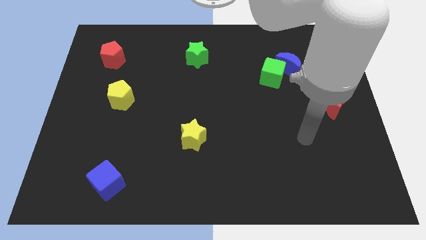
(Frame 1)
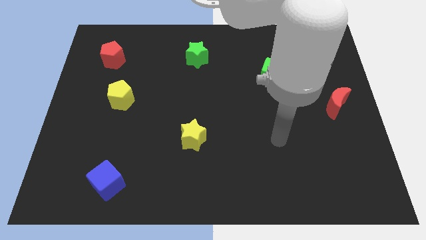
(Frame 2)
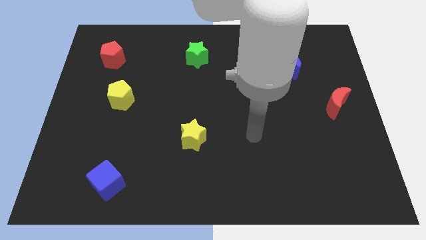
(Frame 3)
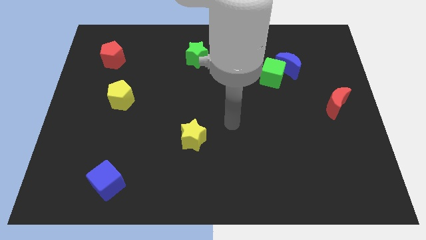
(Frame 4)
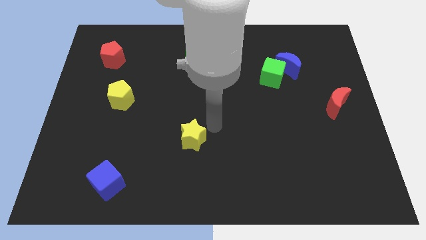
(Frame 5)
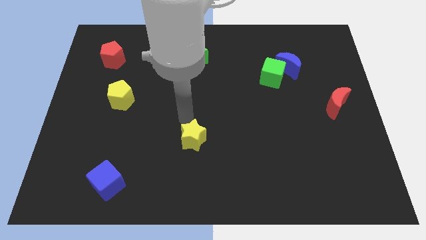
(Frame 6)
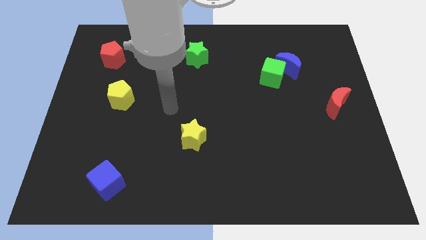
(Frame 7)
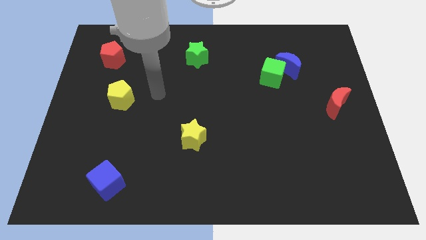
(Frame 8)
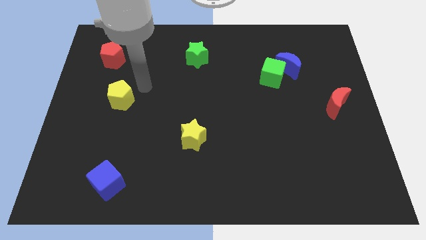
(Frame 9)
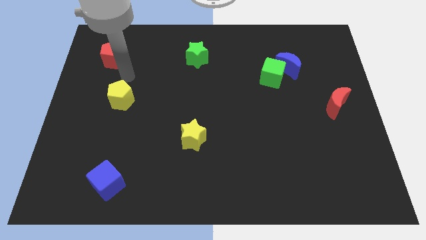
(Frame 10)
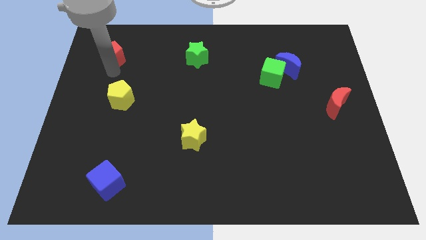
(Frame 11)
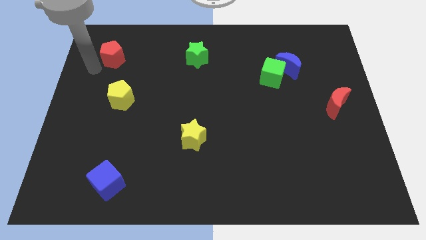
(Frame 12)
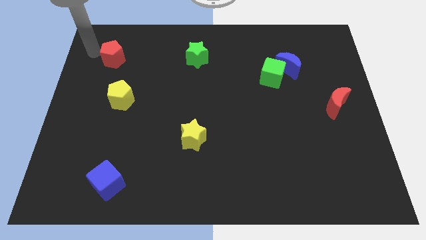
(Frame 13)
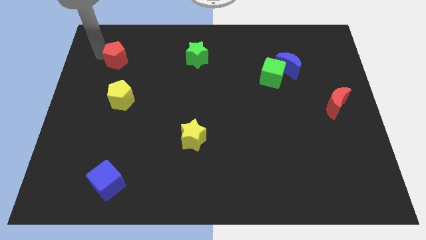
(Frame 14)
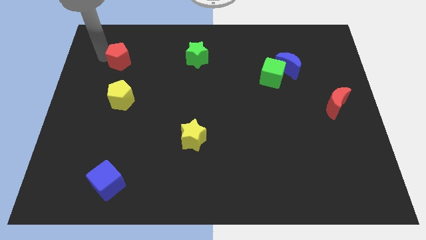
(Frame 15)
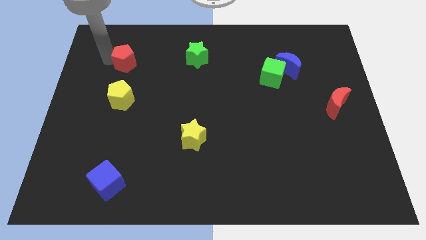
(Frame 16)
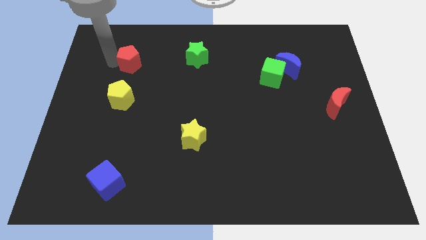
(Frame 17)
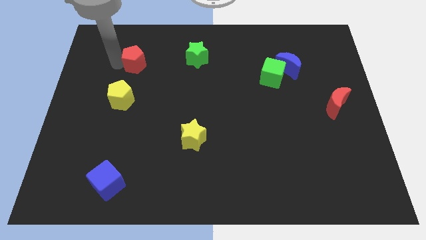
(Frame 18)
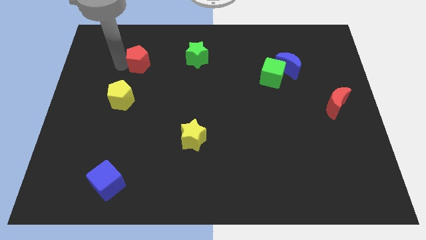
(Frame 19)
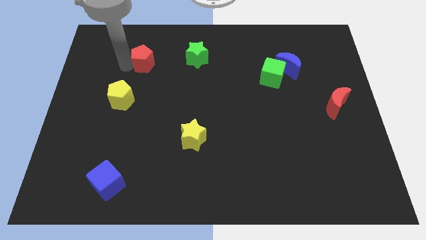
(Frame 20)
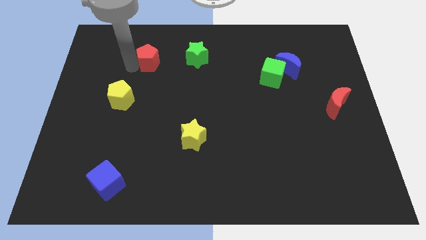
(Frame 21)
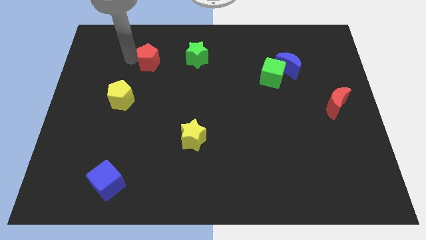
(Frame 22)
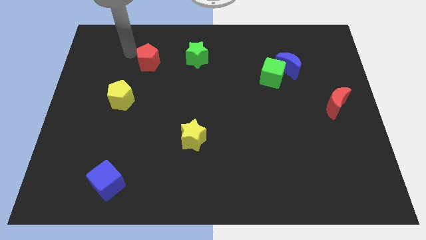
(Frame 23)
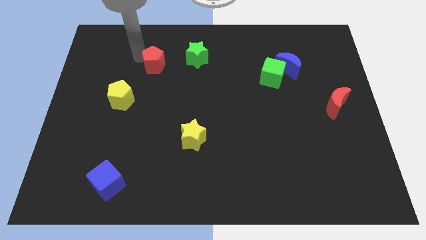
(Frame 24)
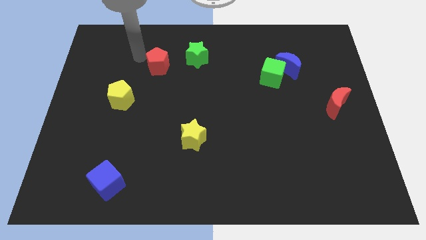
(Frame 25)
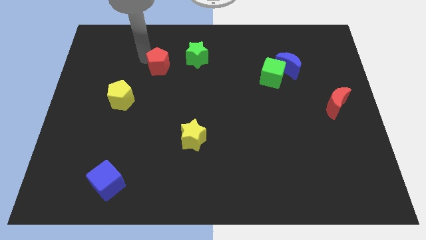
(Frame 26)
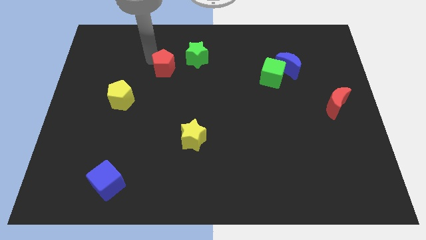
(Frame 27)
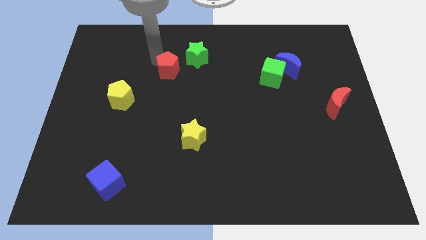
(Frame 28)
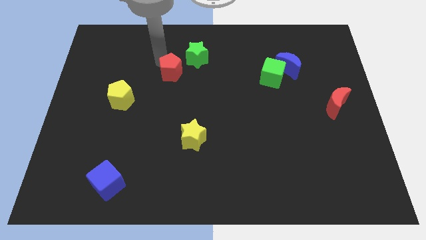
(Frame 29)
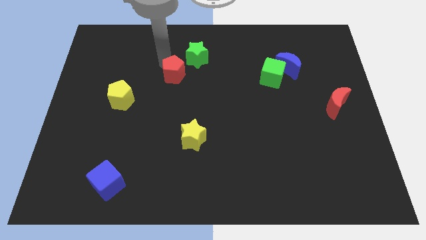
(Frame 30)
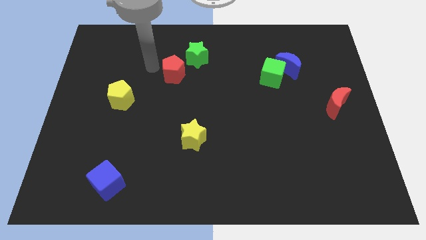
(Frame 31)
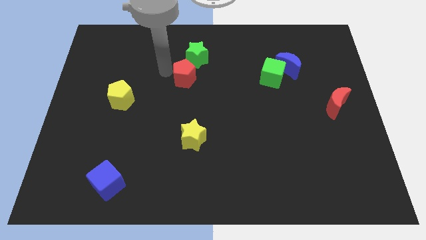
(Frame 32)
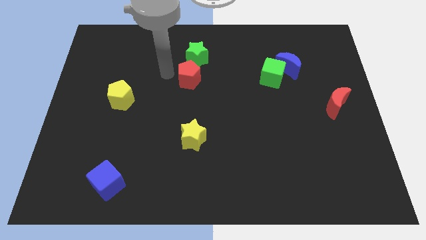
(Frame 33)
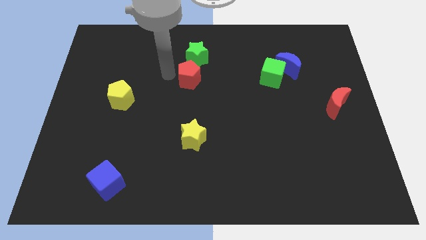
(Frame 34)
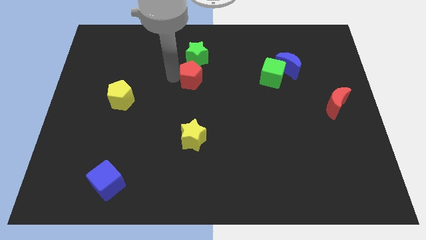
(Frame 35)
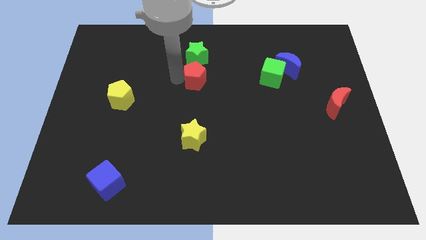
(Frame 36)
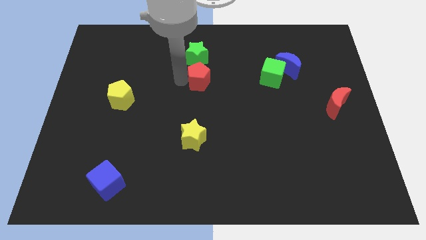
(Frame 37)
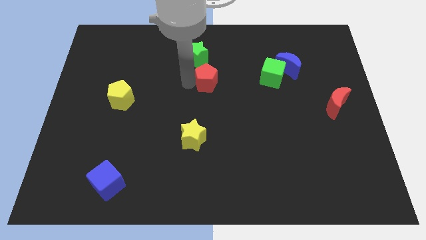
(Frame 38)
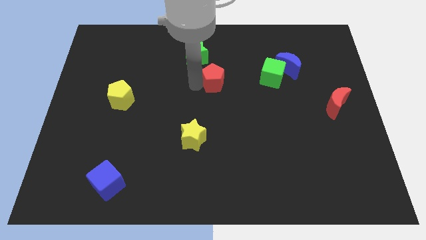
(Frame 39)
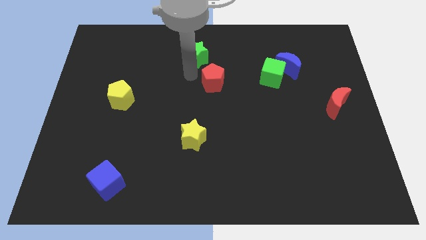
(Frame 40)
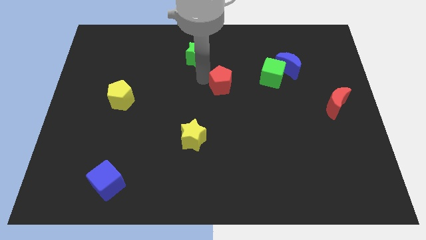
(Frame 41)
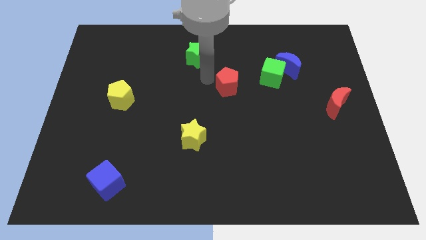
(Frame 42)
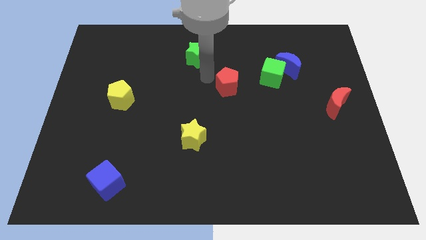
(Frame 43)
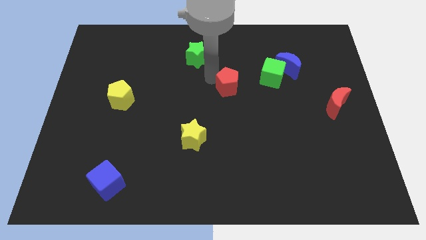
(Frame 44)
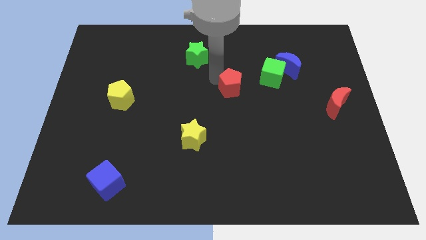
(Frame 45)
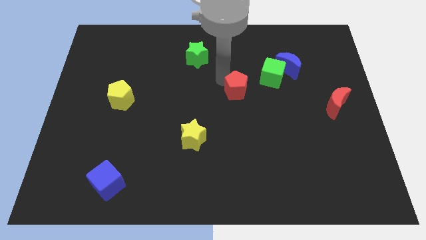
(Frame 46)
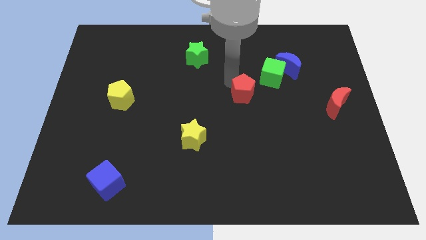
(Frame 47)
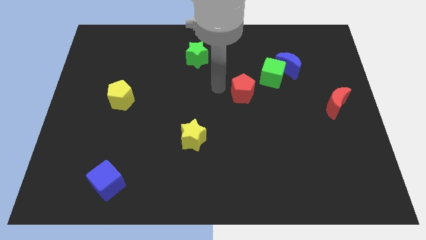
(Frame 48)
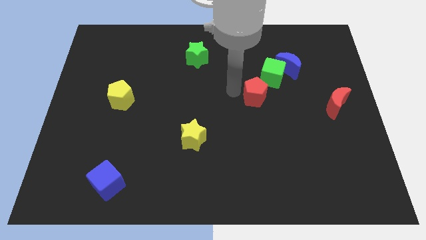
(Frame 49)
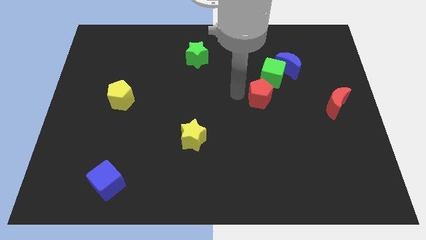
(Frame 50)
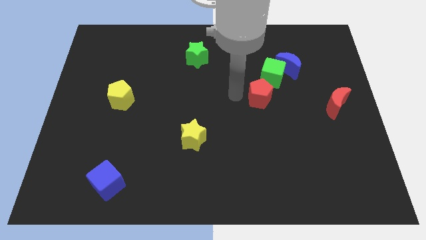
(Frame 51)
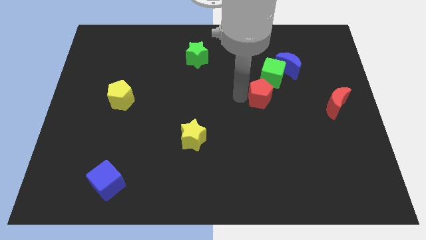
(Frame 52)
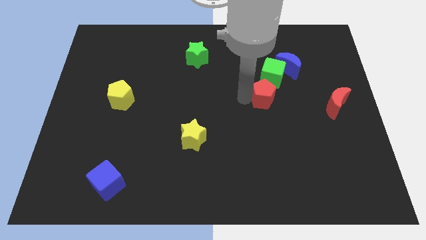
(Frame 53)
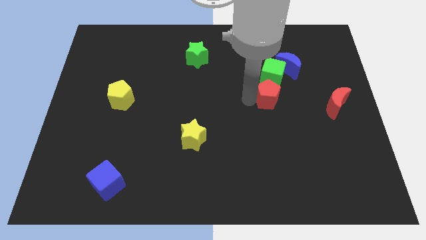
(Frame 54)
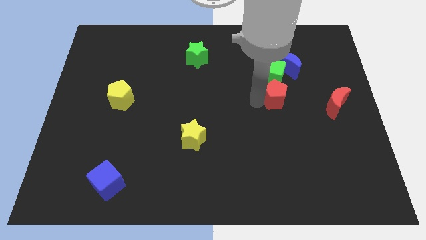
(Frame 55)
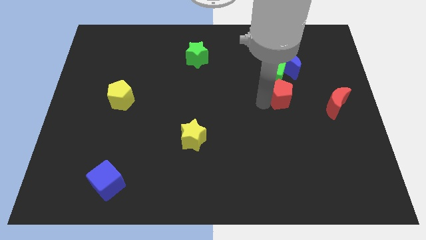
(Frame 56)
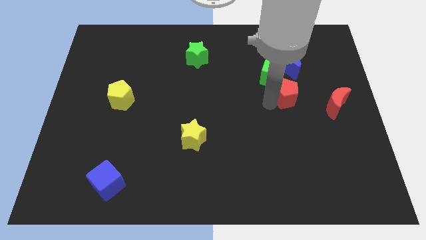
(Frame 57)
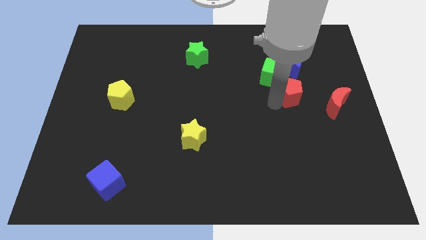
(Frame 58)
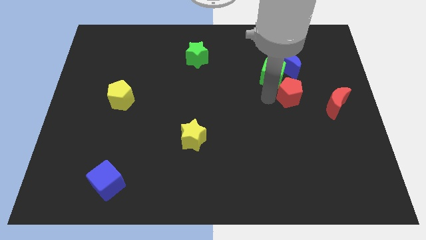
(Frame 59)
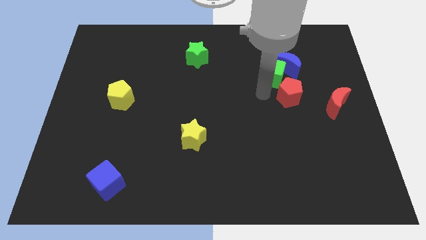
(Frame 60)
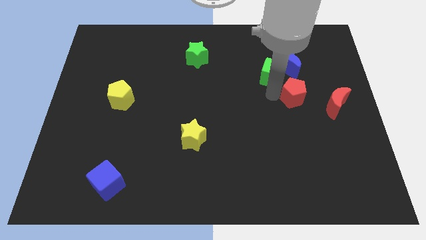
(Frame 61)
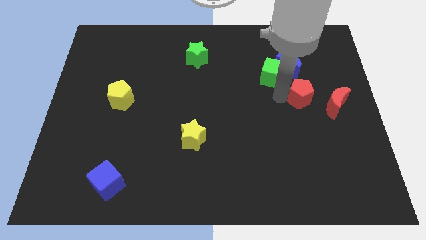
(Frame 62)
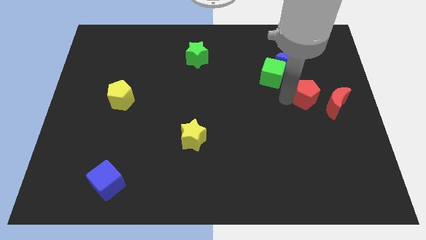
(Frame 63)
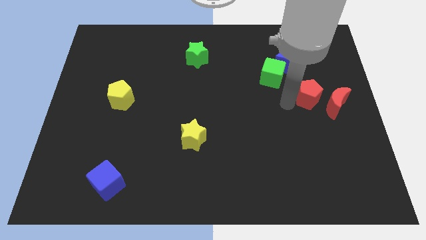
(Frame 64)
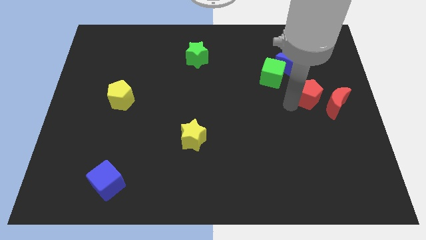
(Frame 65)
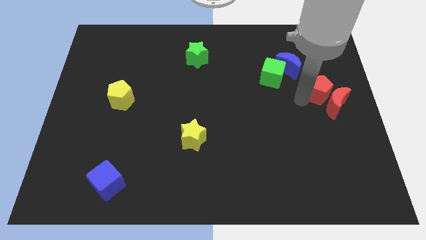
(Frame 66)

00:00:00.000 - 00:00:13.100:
move the red pentagon to the center right
